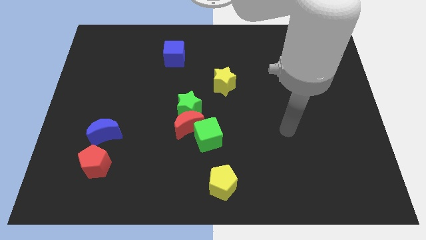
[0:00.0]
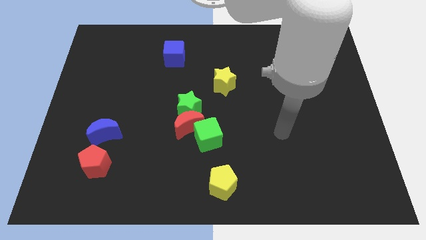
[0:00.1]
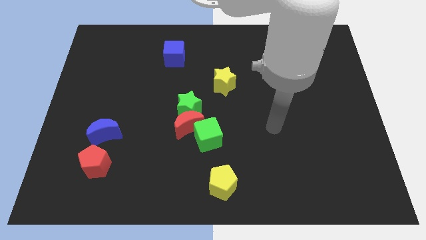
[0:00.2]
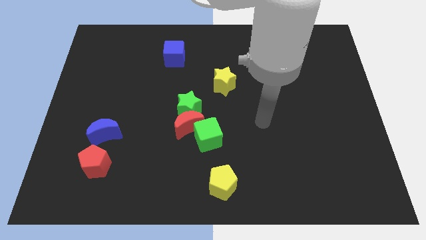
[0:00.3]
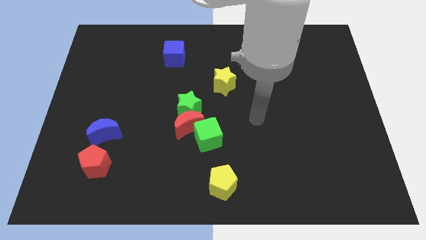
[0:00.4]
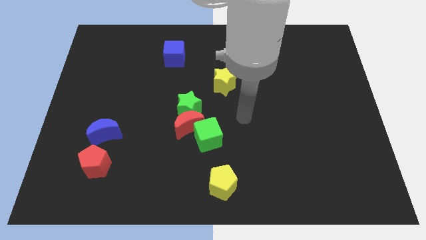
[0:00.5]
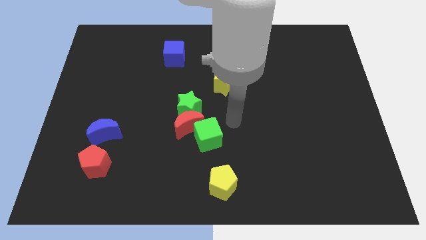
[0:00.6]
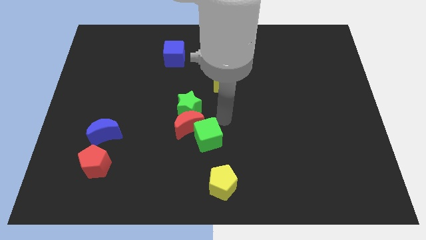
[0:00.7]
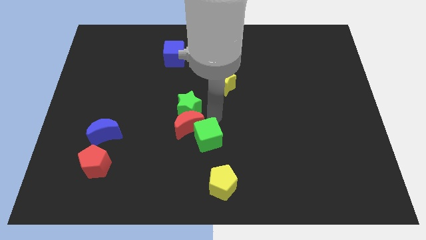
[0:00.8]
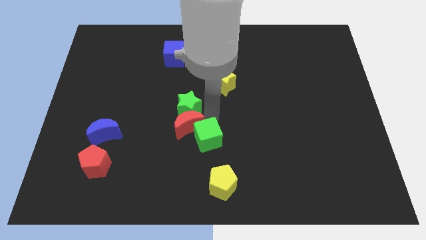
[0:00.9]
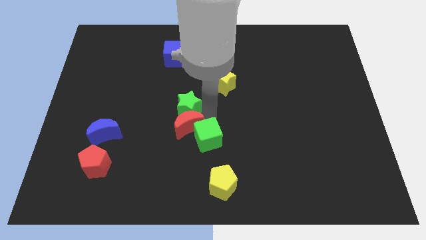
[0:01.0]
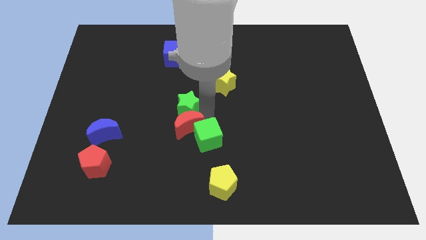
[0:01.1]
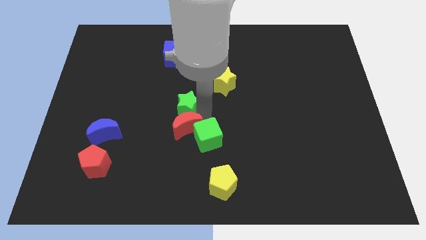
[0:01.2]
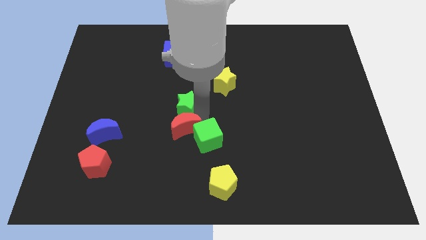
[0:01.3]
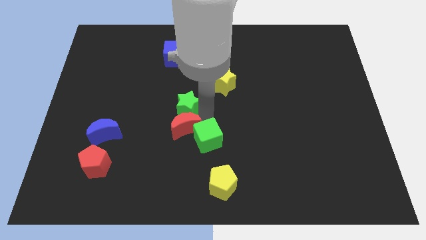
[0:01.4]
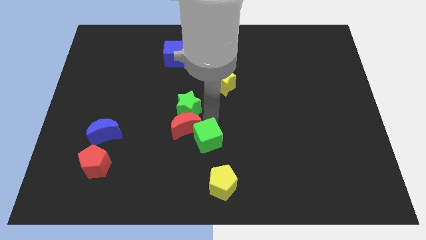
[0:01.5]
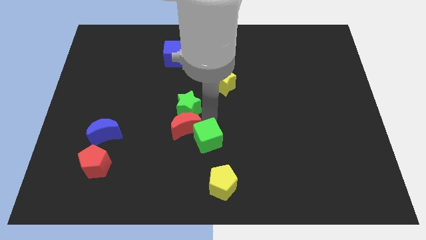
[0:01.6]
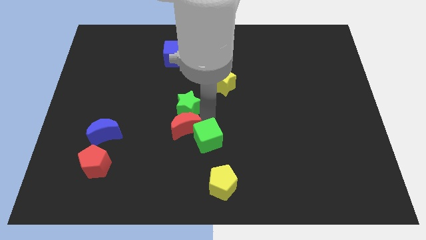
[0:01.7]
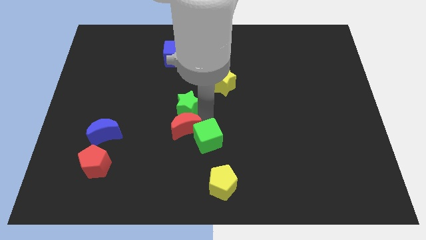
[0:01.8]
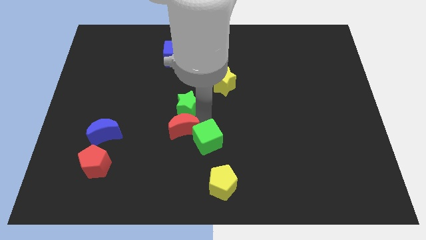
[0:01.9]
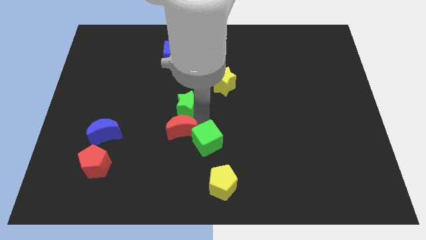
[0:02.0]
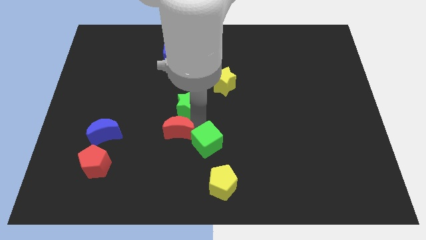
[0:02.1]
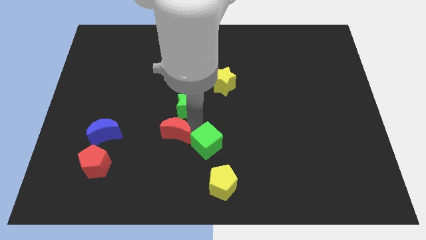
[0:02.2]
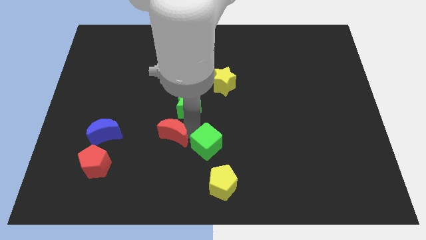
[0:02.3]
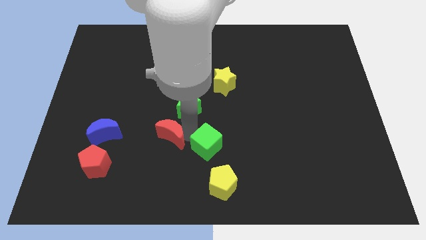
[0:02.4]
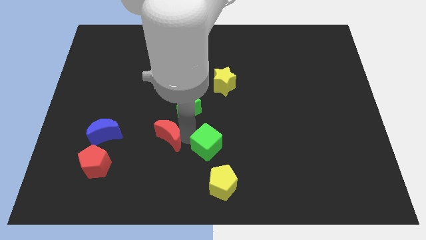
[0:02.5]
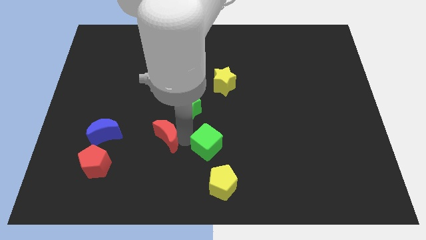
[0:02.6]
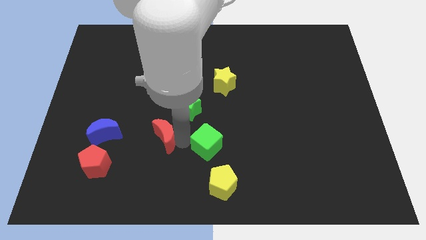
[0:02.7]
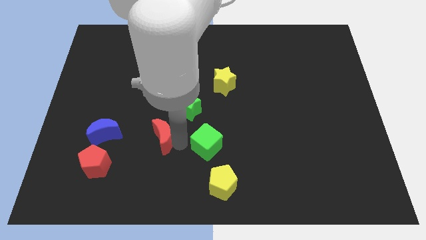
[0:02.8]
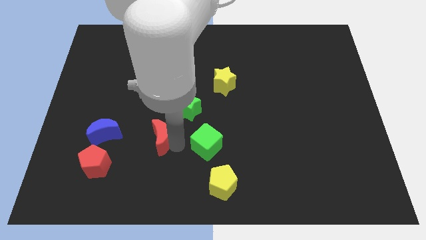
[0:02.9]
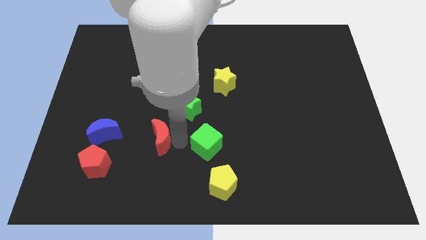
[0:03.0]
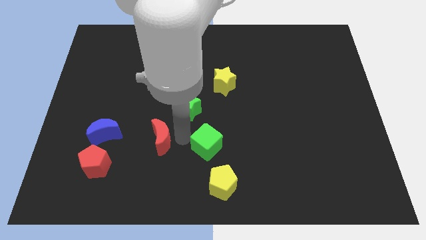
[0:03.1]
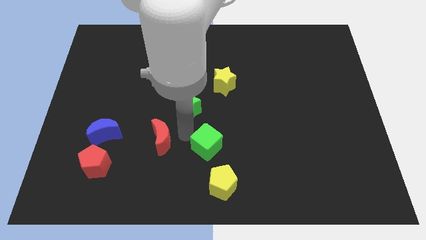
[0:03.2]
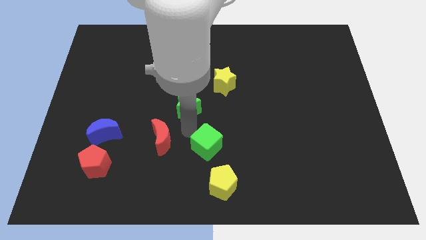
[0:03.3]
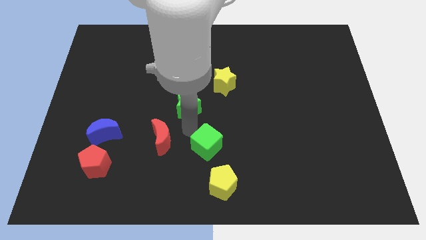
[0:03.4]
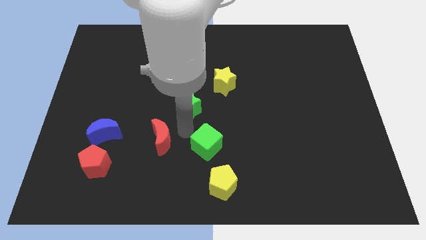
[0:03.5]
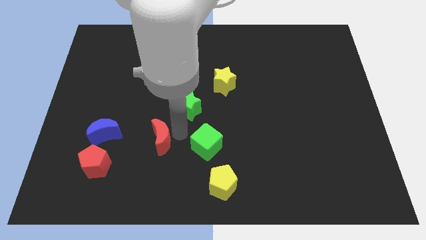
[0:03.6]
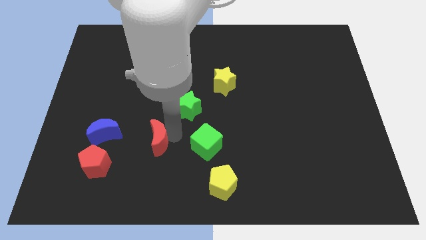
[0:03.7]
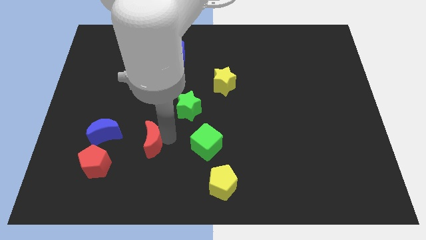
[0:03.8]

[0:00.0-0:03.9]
separate the red moon from the green star and green cube

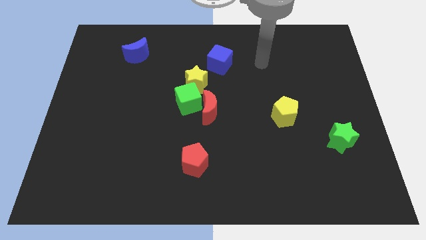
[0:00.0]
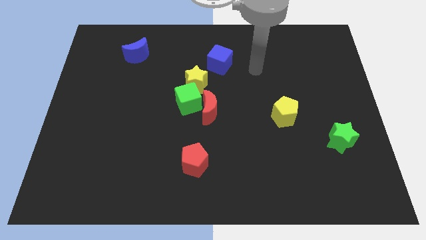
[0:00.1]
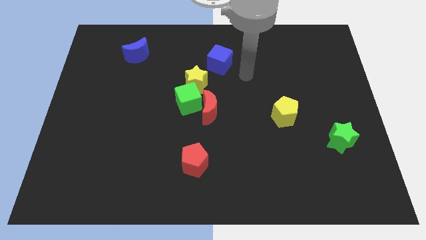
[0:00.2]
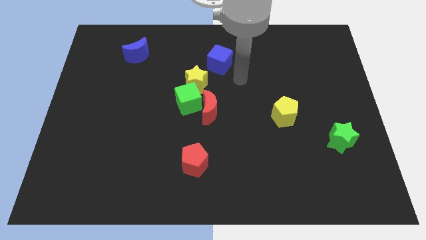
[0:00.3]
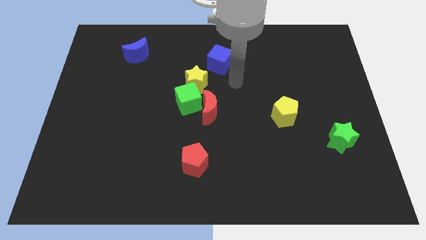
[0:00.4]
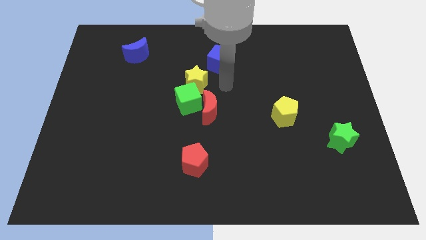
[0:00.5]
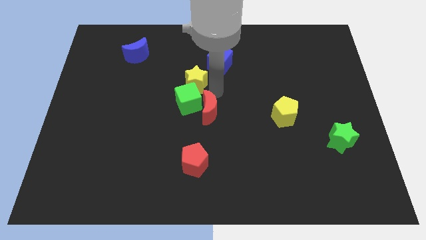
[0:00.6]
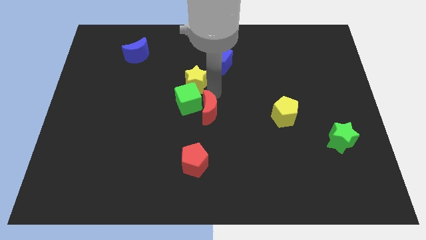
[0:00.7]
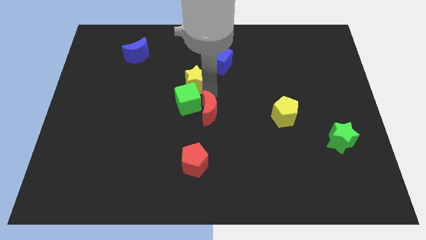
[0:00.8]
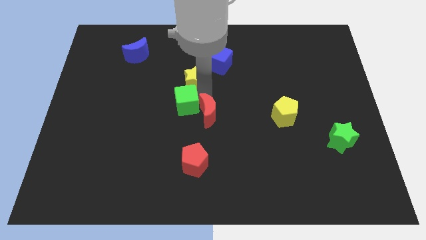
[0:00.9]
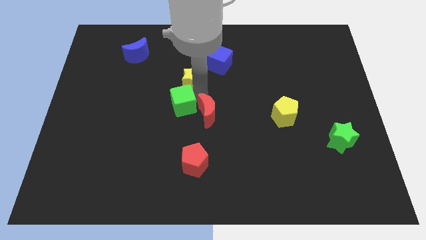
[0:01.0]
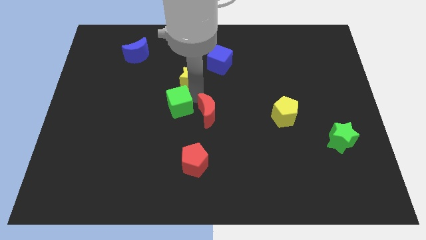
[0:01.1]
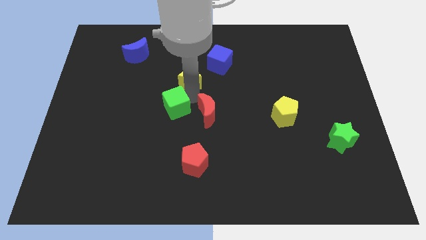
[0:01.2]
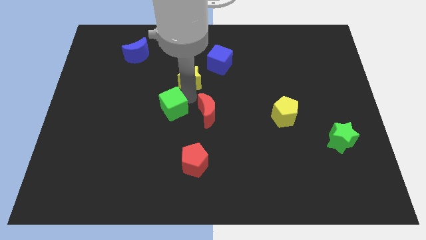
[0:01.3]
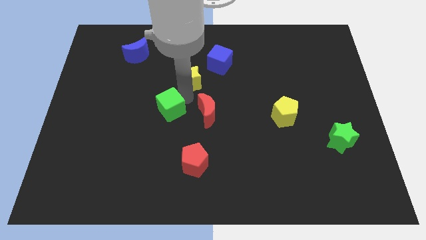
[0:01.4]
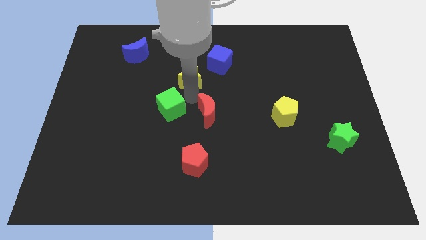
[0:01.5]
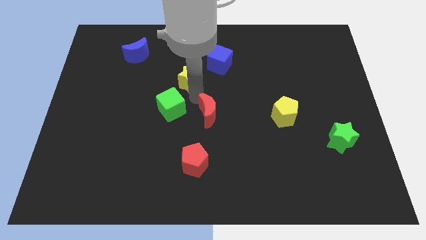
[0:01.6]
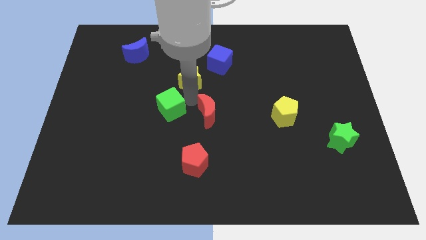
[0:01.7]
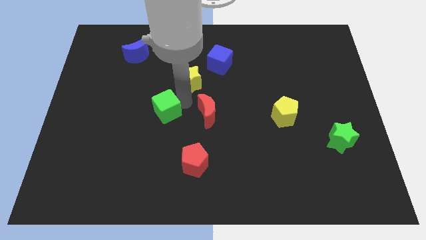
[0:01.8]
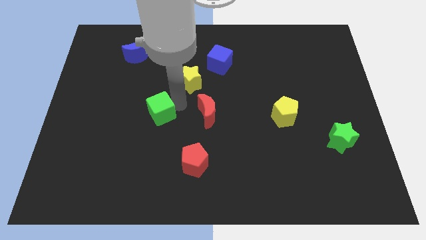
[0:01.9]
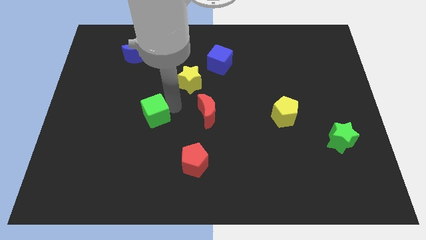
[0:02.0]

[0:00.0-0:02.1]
move the green cube away from the red moon and yellow star

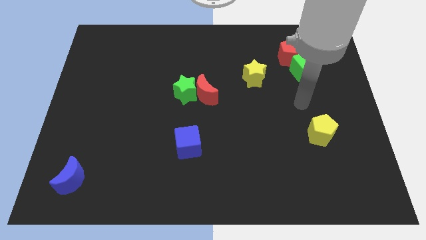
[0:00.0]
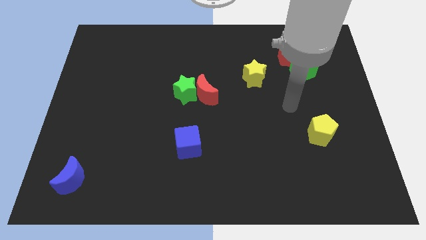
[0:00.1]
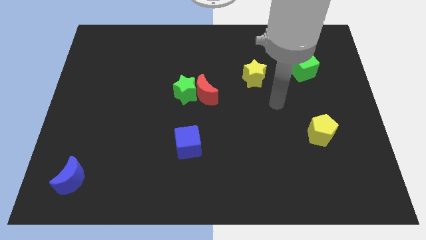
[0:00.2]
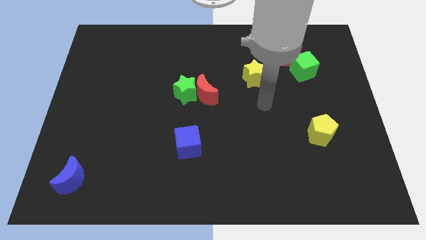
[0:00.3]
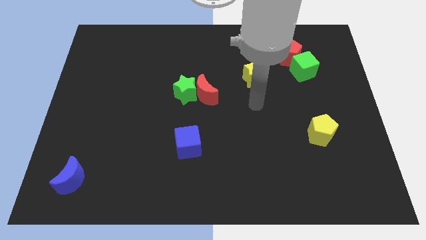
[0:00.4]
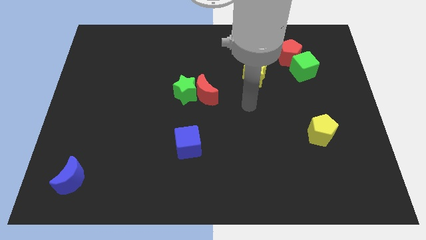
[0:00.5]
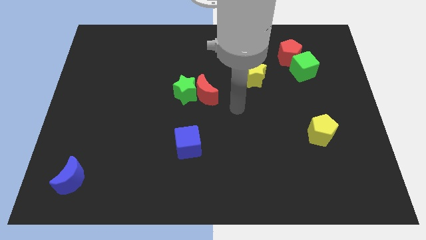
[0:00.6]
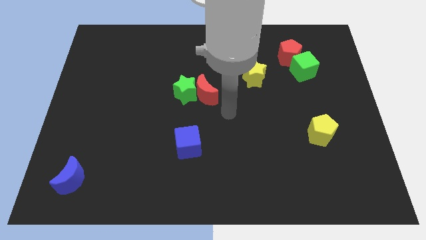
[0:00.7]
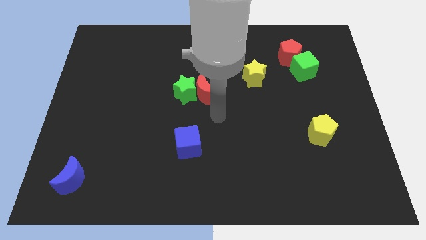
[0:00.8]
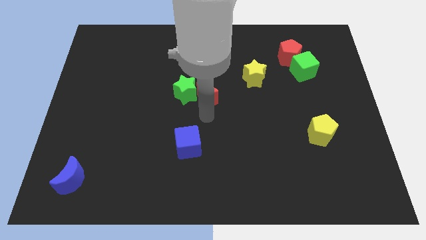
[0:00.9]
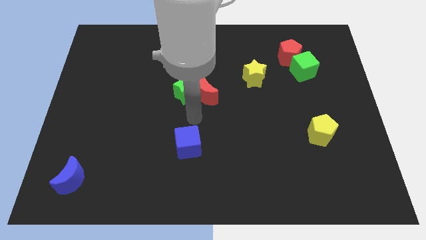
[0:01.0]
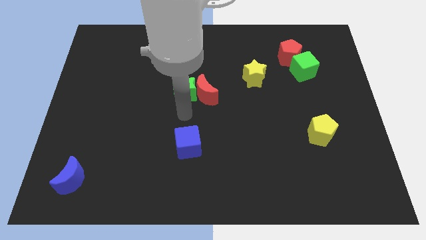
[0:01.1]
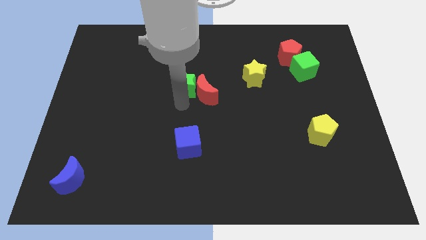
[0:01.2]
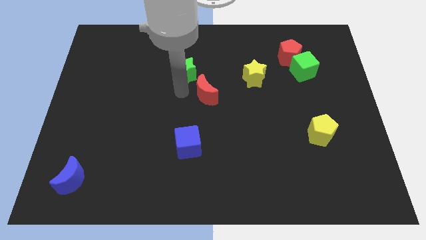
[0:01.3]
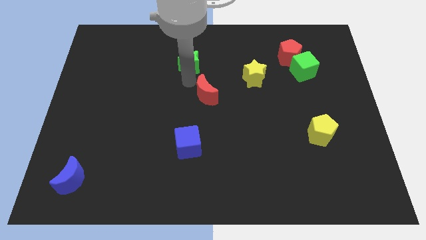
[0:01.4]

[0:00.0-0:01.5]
separate the red moon from the green star

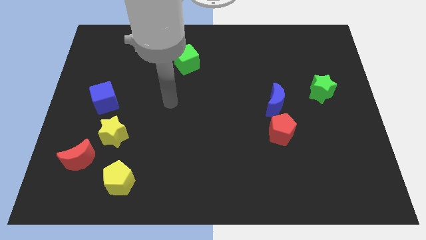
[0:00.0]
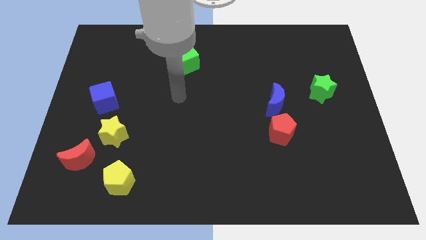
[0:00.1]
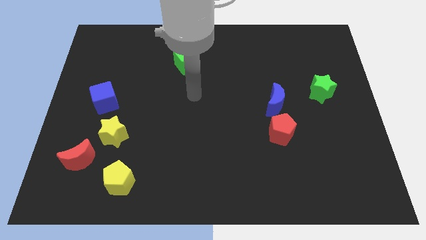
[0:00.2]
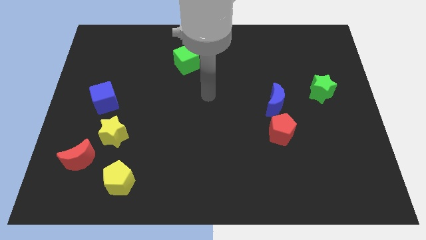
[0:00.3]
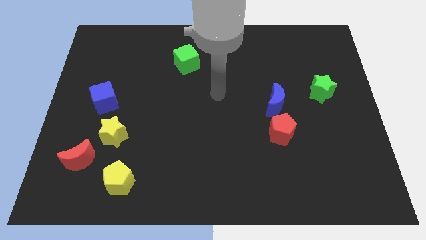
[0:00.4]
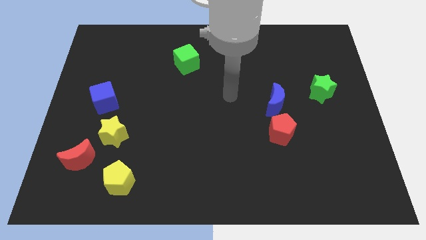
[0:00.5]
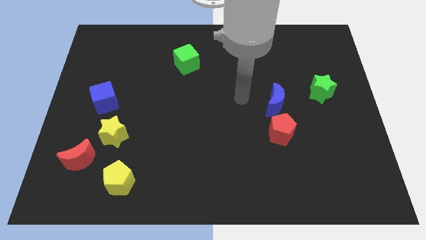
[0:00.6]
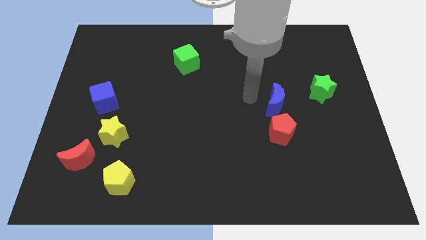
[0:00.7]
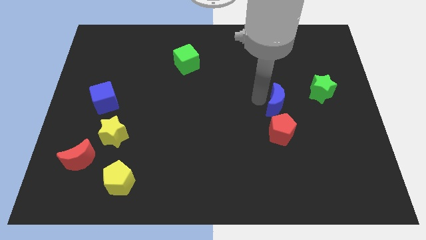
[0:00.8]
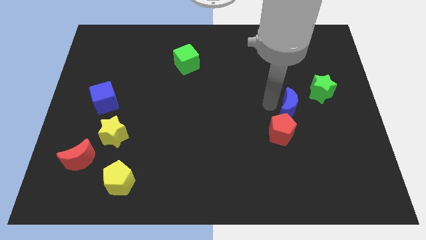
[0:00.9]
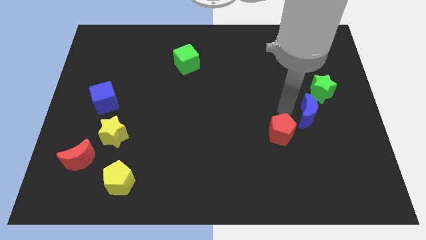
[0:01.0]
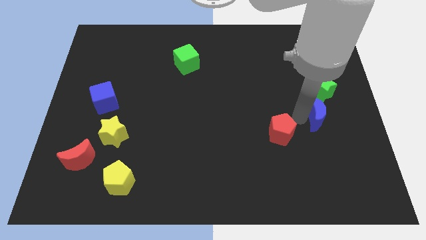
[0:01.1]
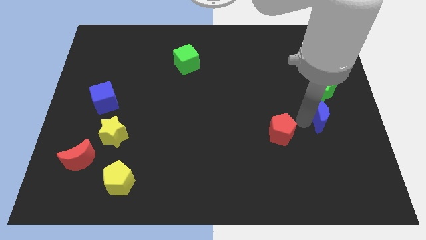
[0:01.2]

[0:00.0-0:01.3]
pull the red pentagon apart from the blue moon

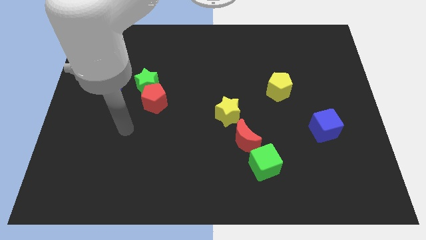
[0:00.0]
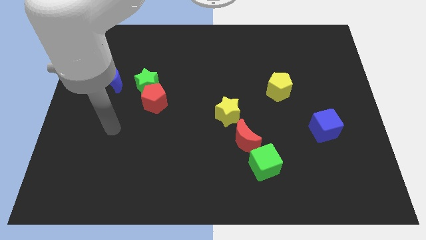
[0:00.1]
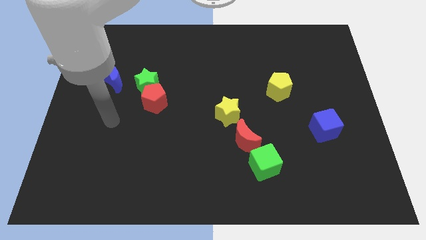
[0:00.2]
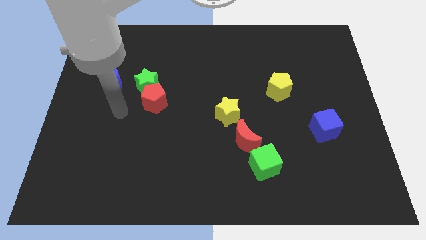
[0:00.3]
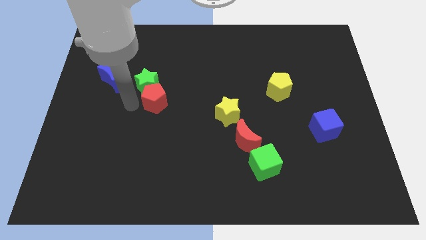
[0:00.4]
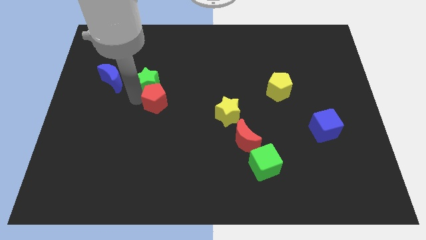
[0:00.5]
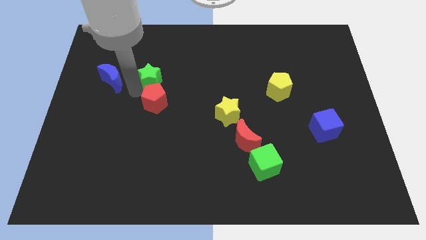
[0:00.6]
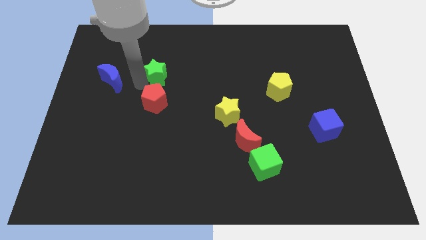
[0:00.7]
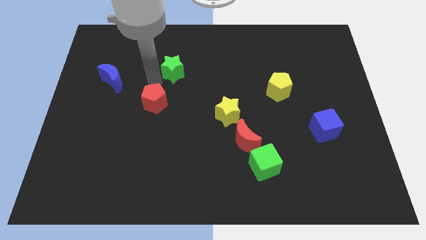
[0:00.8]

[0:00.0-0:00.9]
pull the red pentagon apart from the green star
